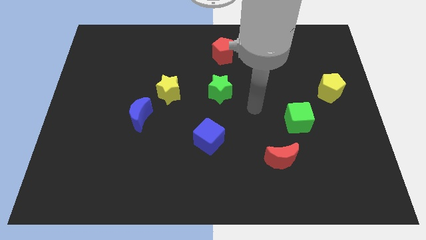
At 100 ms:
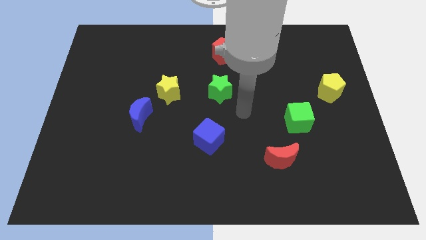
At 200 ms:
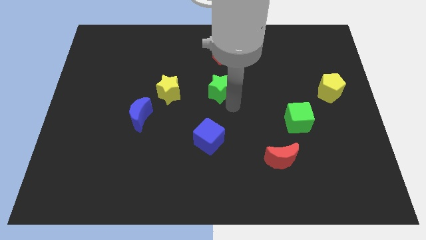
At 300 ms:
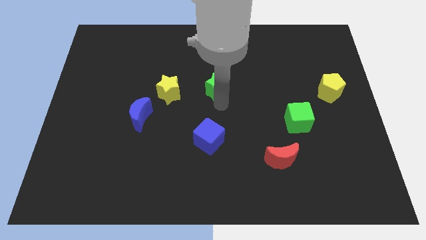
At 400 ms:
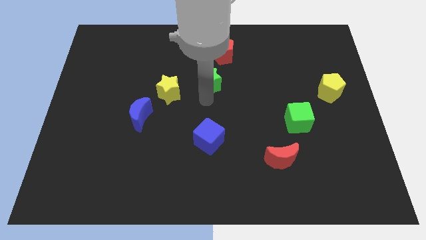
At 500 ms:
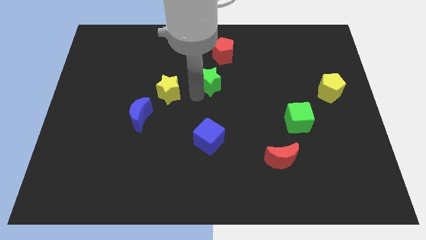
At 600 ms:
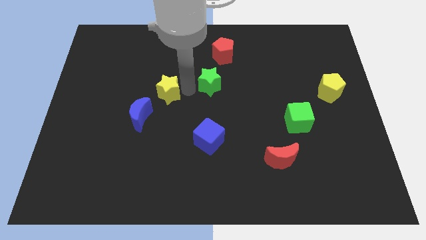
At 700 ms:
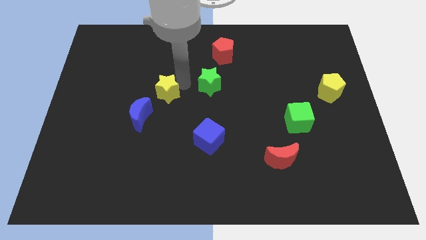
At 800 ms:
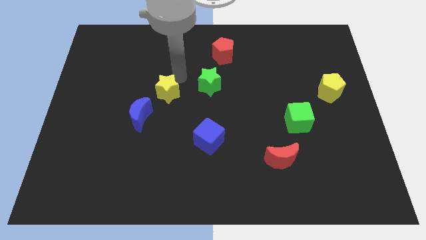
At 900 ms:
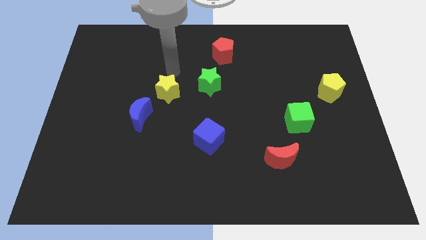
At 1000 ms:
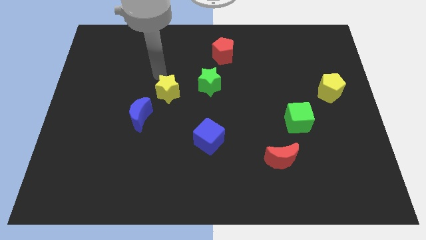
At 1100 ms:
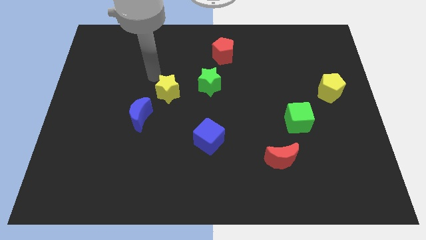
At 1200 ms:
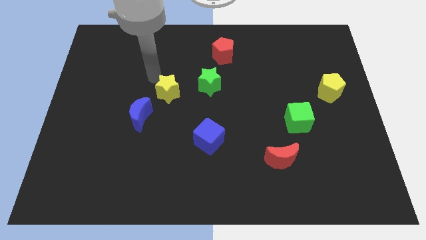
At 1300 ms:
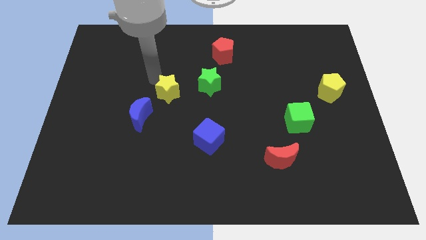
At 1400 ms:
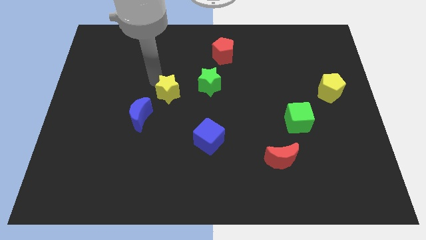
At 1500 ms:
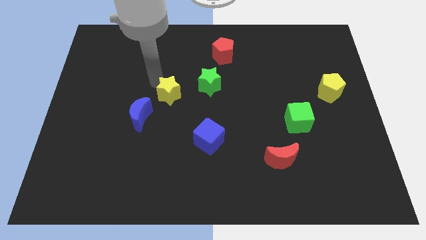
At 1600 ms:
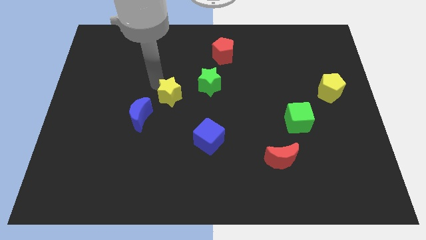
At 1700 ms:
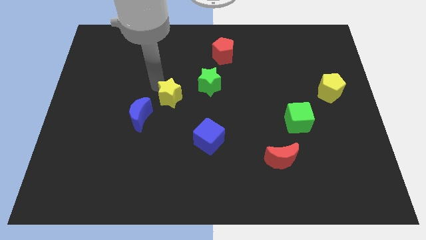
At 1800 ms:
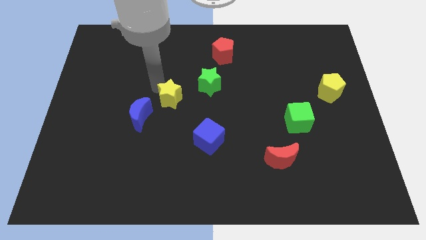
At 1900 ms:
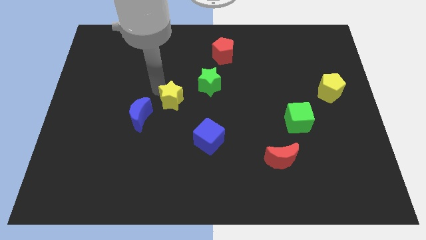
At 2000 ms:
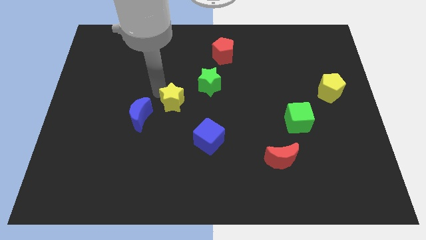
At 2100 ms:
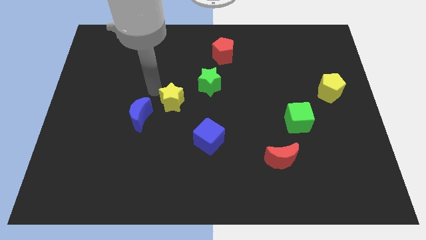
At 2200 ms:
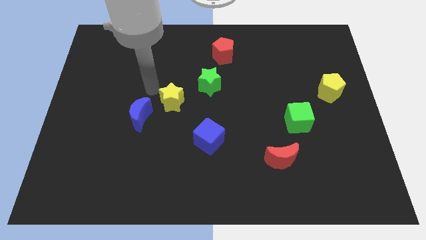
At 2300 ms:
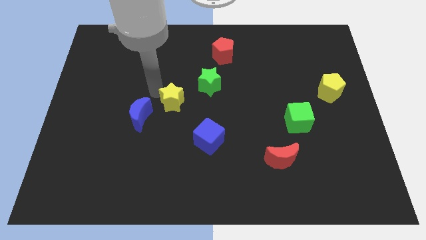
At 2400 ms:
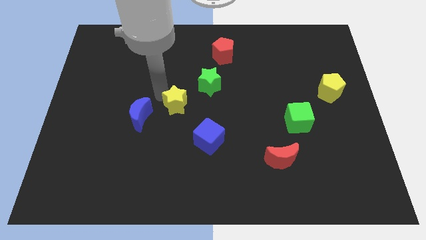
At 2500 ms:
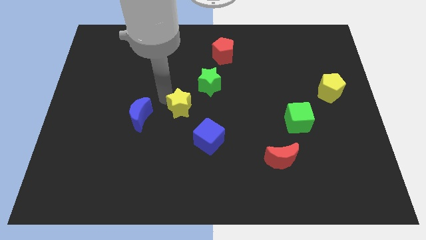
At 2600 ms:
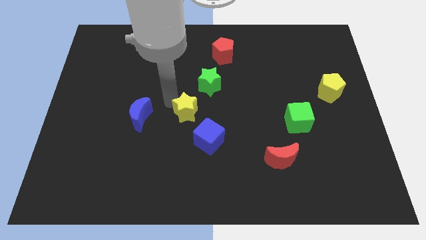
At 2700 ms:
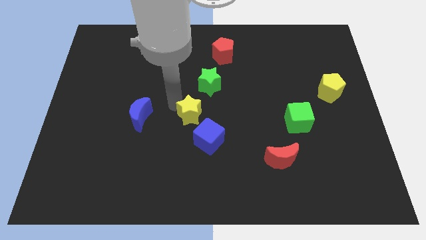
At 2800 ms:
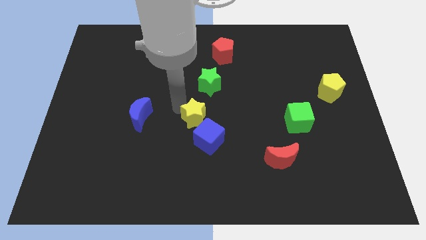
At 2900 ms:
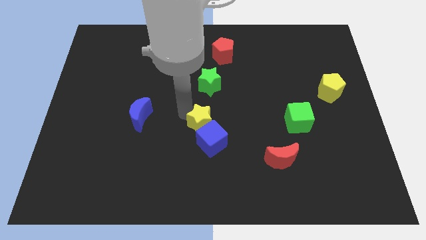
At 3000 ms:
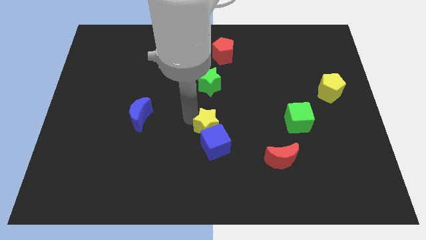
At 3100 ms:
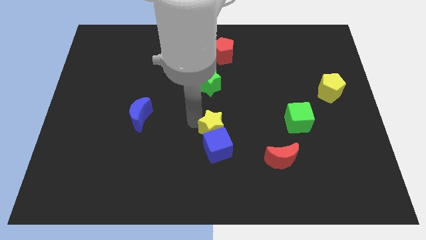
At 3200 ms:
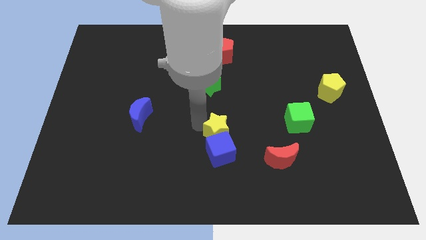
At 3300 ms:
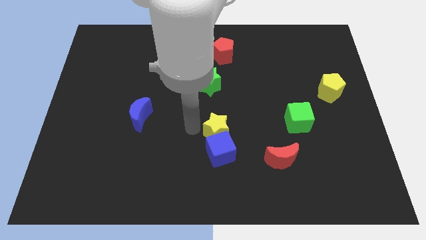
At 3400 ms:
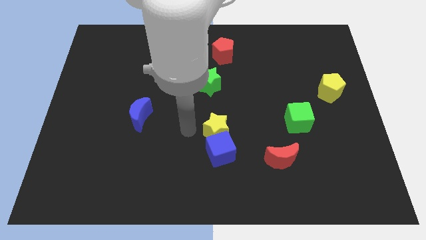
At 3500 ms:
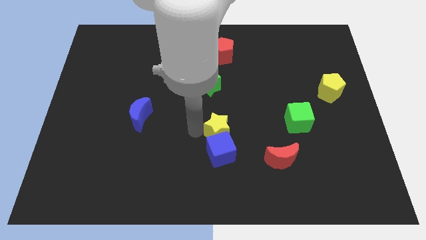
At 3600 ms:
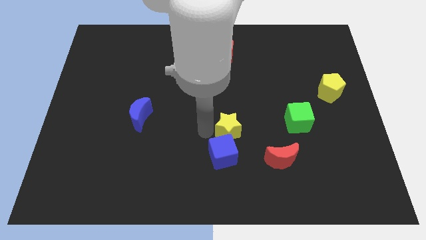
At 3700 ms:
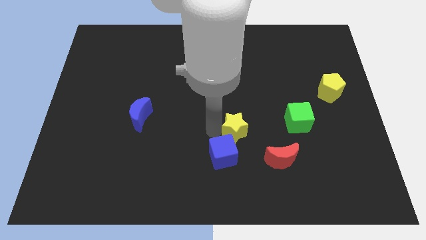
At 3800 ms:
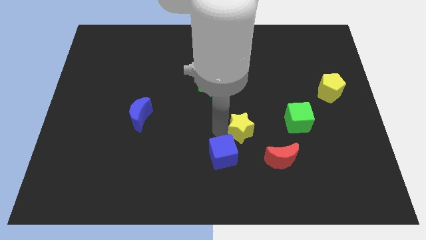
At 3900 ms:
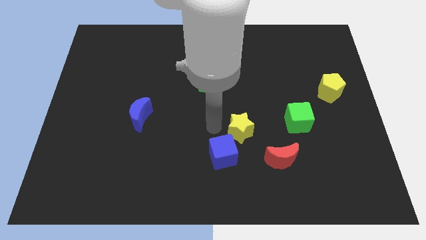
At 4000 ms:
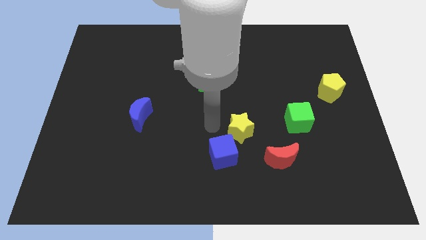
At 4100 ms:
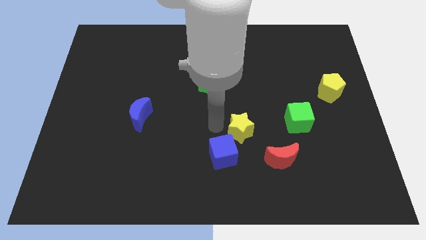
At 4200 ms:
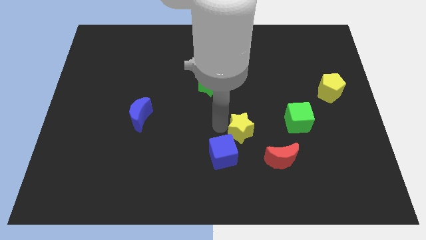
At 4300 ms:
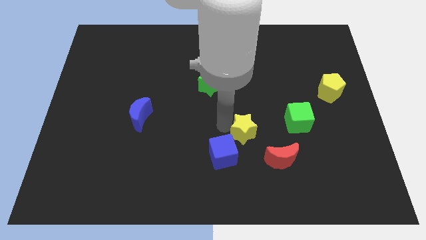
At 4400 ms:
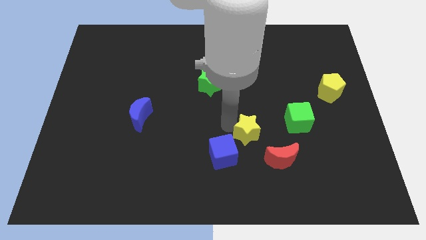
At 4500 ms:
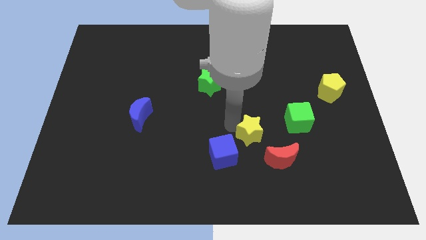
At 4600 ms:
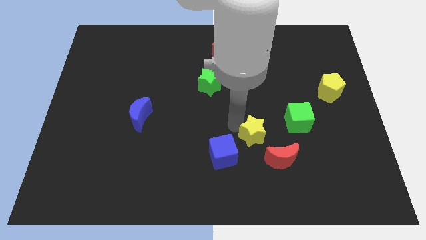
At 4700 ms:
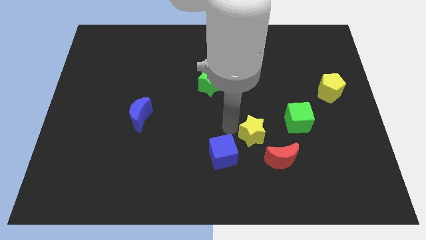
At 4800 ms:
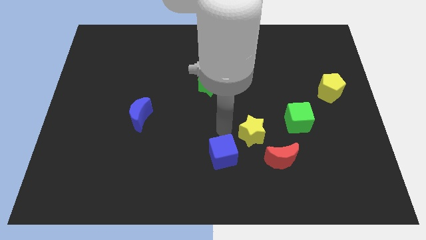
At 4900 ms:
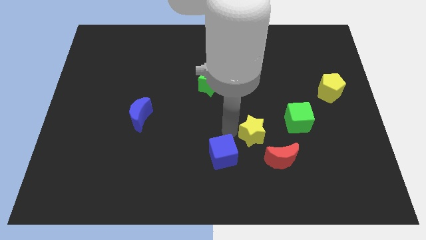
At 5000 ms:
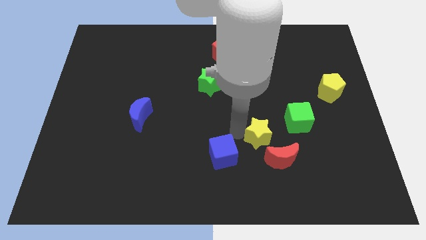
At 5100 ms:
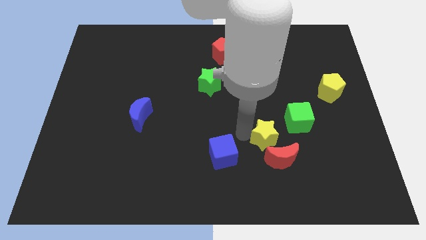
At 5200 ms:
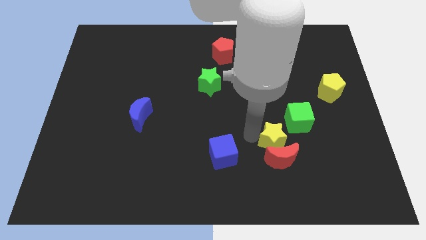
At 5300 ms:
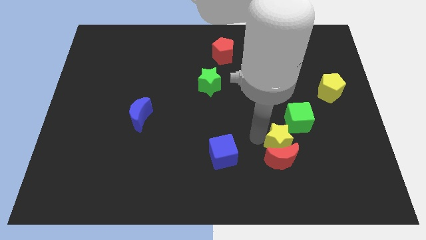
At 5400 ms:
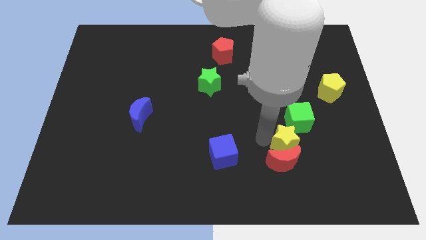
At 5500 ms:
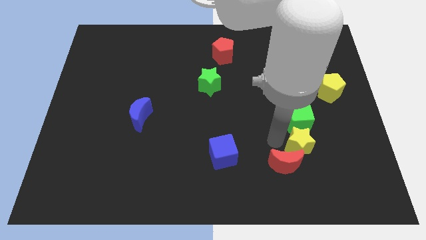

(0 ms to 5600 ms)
put the yellow star just right of the red moon

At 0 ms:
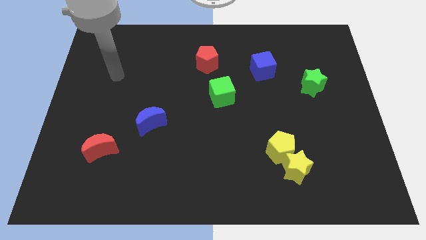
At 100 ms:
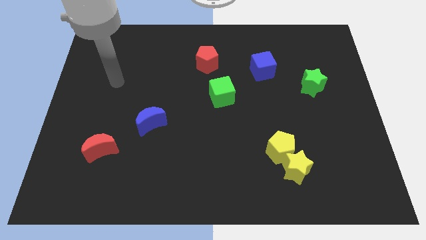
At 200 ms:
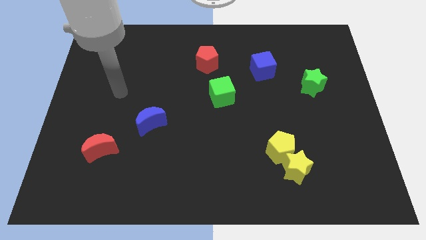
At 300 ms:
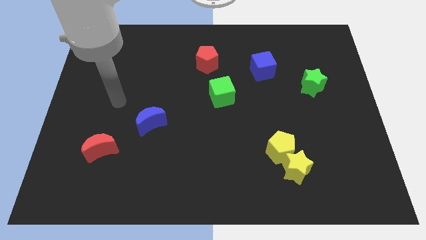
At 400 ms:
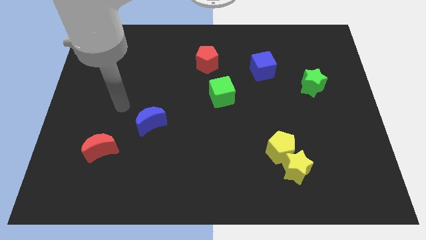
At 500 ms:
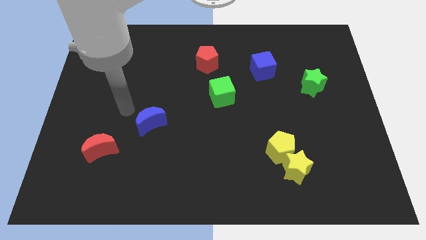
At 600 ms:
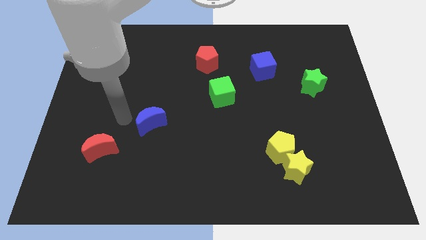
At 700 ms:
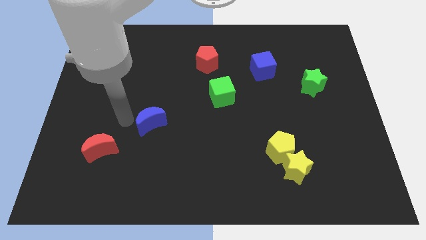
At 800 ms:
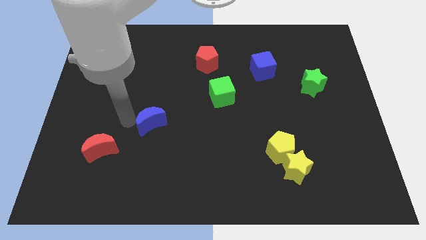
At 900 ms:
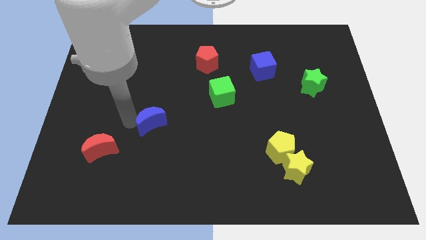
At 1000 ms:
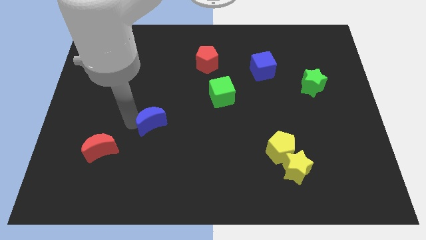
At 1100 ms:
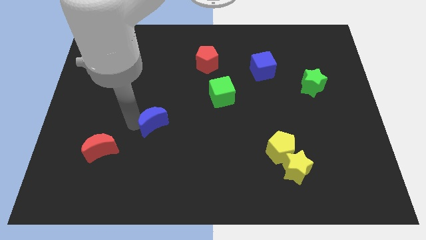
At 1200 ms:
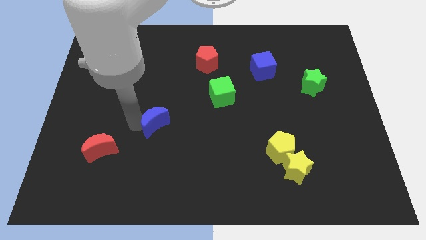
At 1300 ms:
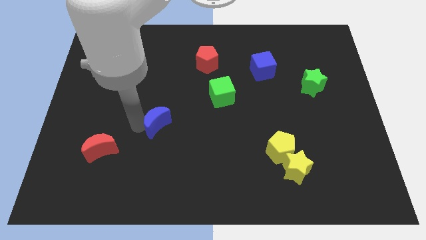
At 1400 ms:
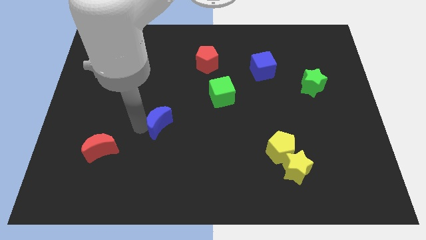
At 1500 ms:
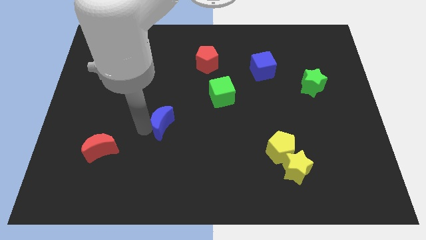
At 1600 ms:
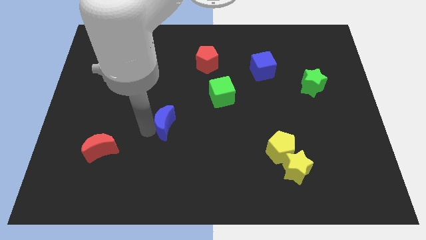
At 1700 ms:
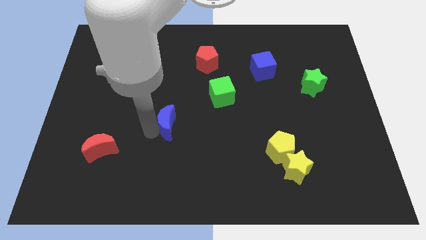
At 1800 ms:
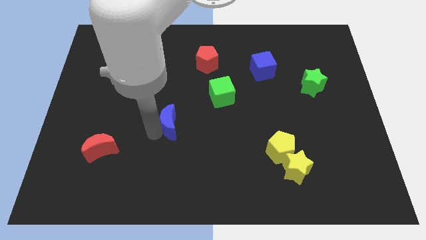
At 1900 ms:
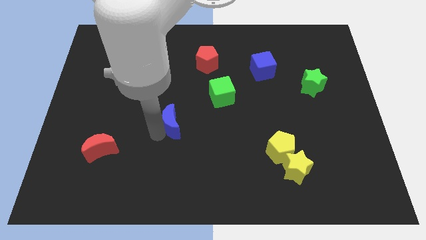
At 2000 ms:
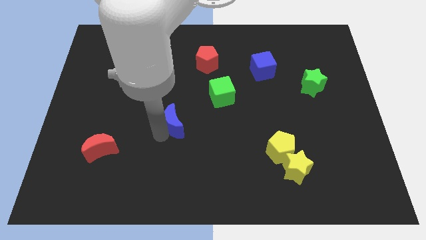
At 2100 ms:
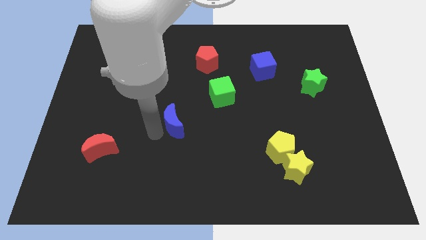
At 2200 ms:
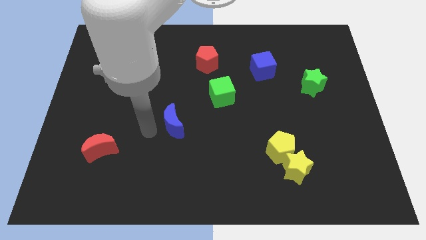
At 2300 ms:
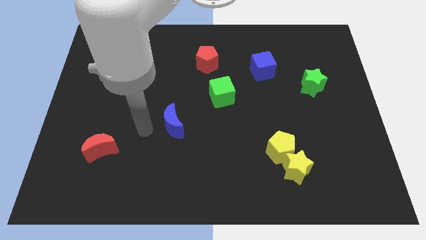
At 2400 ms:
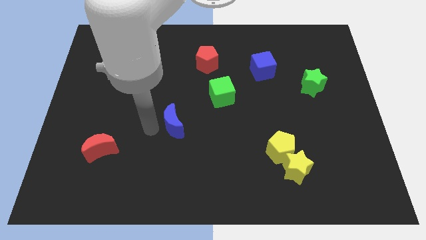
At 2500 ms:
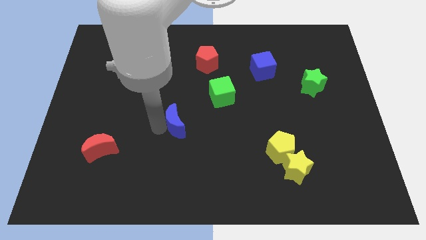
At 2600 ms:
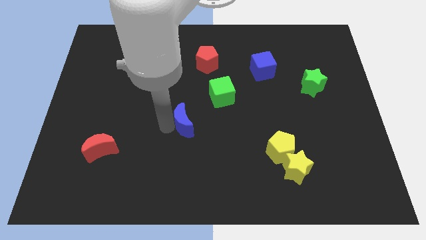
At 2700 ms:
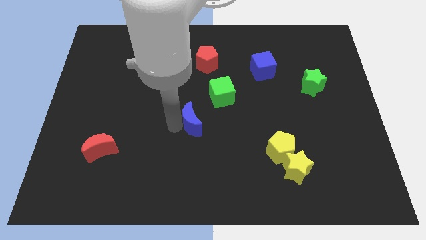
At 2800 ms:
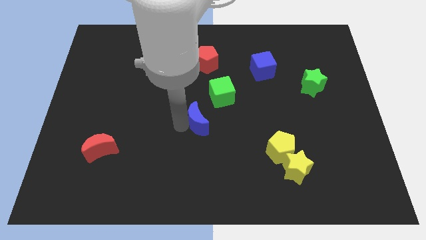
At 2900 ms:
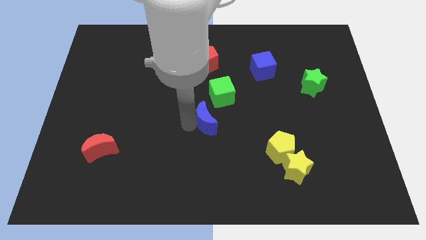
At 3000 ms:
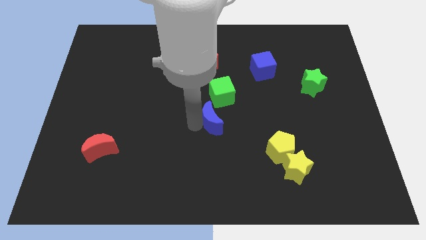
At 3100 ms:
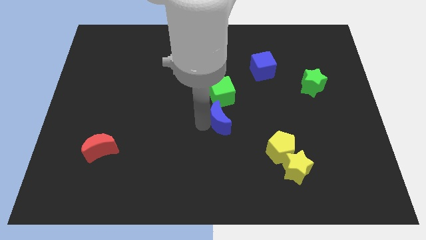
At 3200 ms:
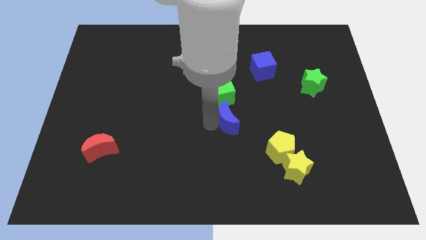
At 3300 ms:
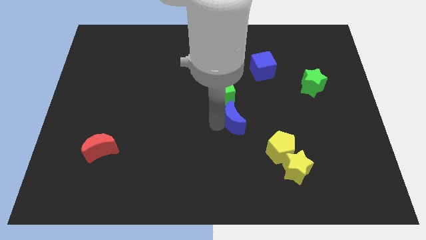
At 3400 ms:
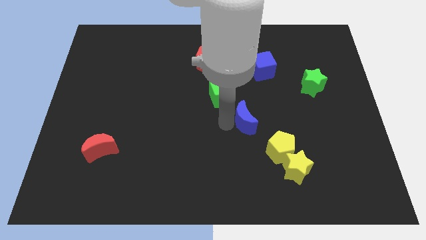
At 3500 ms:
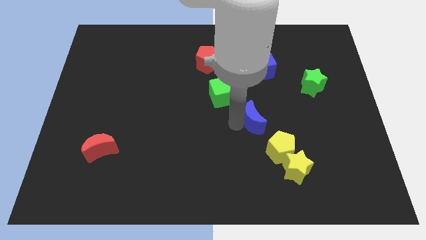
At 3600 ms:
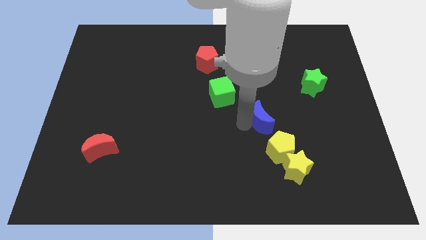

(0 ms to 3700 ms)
push the blue moon above the yellow pentagon
